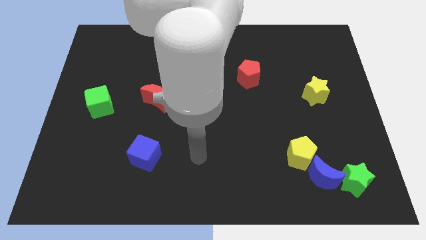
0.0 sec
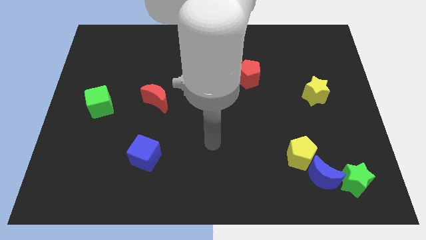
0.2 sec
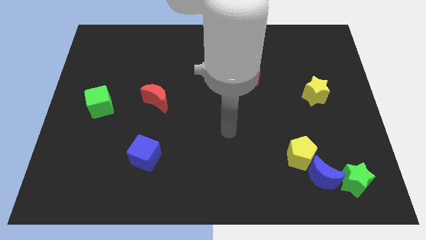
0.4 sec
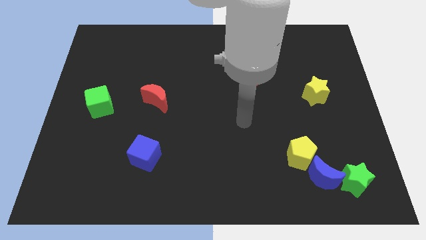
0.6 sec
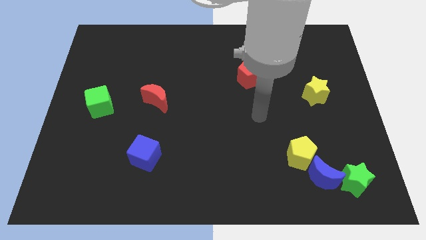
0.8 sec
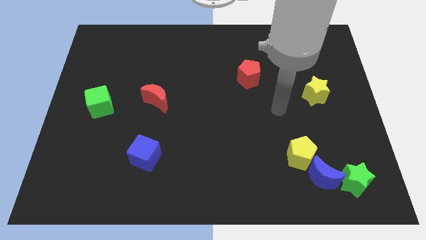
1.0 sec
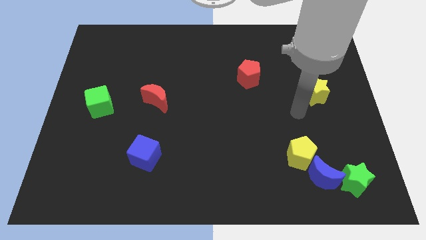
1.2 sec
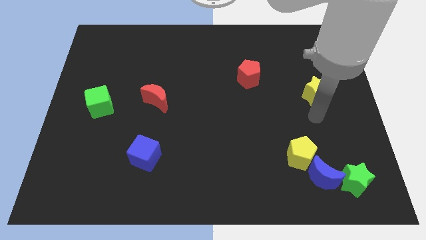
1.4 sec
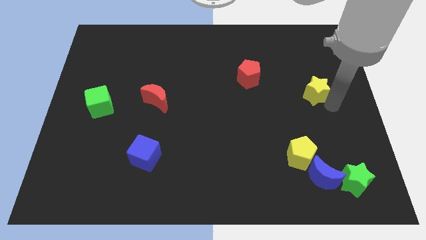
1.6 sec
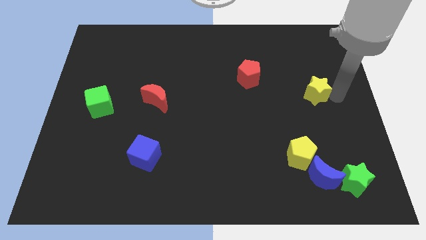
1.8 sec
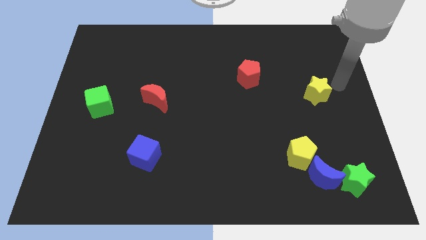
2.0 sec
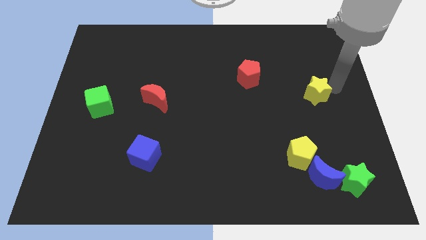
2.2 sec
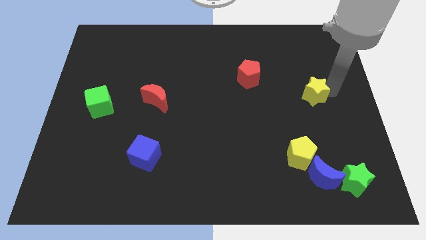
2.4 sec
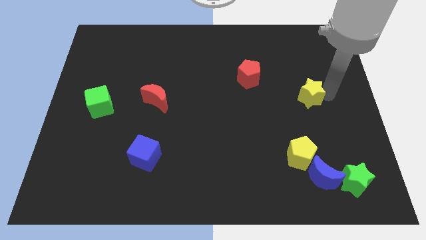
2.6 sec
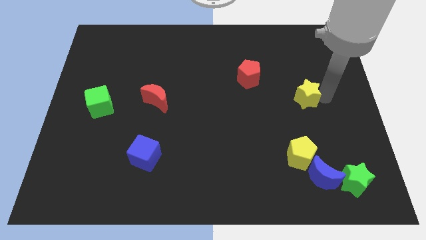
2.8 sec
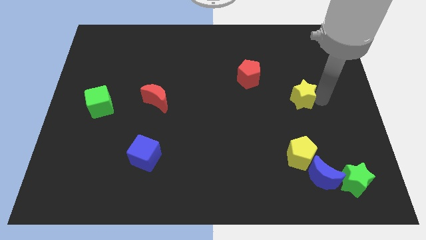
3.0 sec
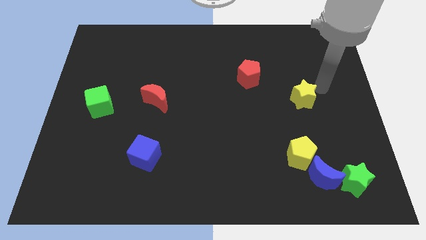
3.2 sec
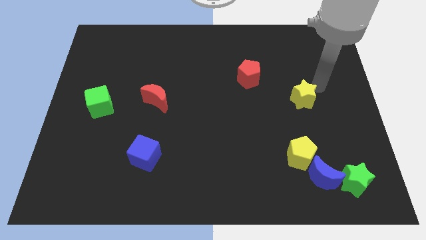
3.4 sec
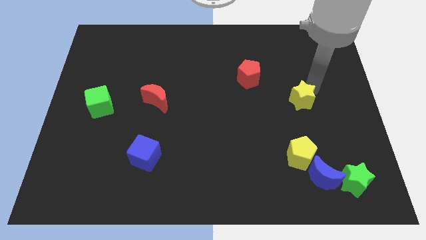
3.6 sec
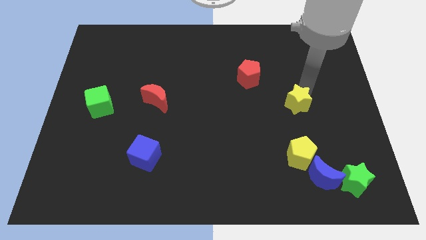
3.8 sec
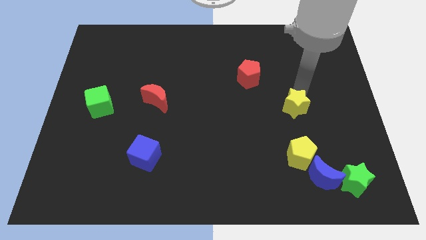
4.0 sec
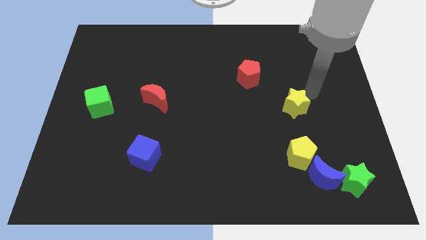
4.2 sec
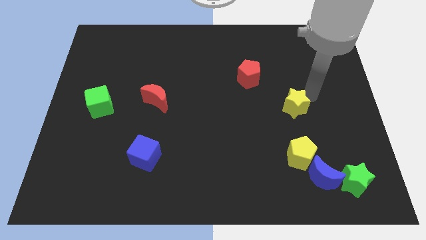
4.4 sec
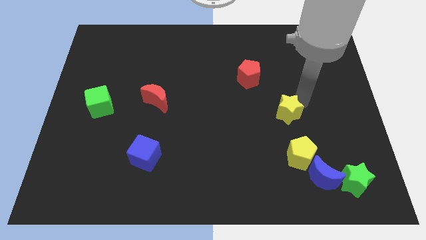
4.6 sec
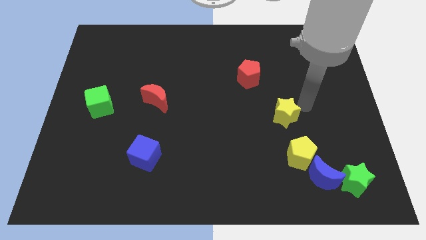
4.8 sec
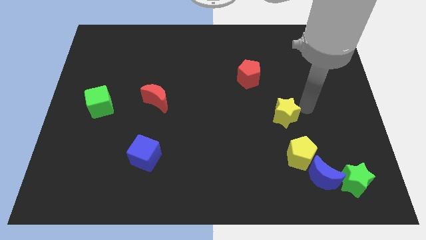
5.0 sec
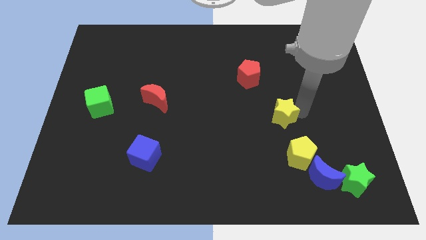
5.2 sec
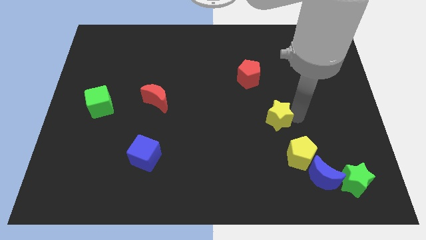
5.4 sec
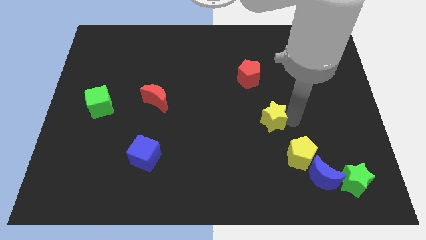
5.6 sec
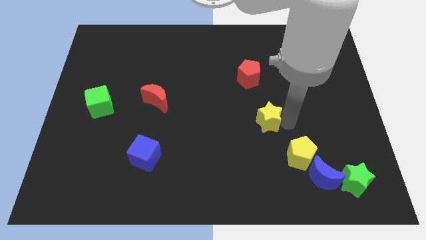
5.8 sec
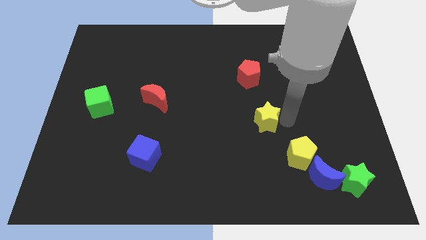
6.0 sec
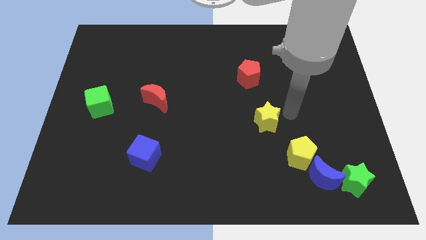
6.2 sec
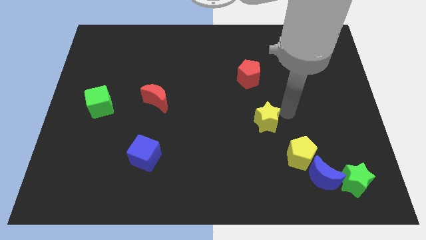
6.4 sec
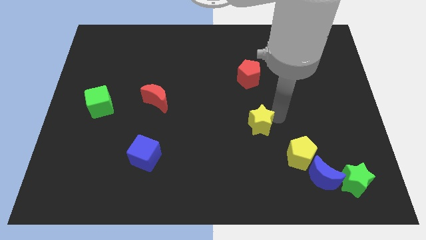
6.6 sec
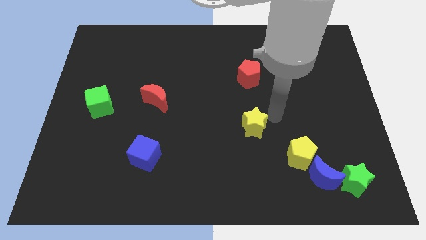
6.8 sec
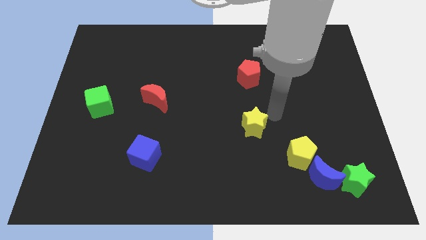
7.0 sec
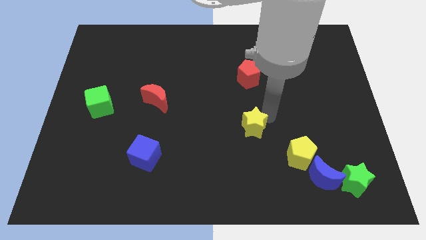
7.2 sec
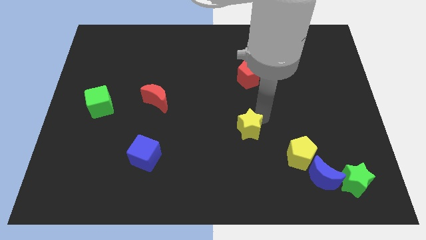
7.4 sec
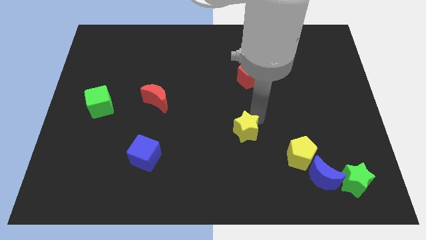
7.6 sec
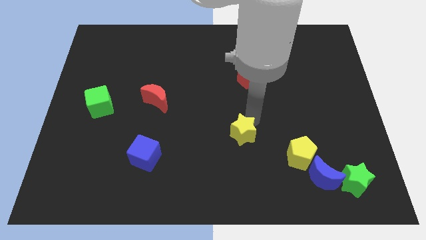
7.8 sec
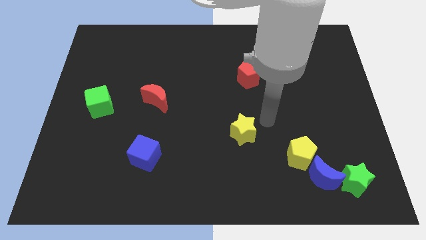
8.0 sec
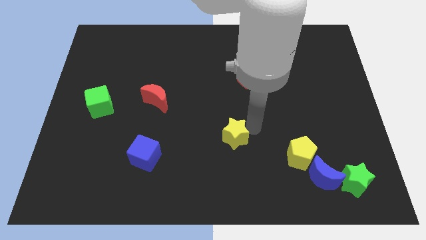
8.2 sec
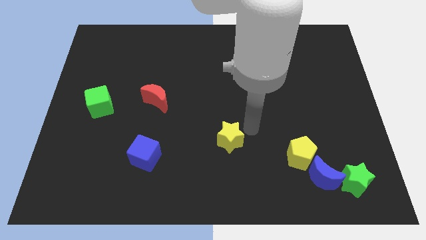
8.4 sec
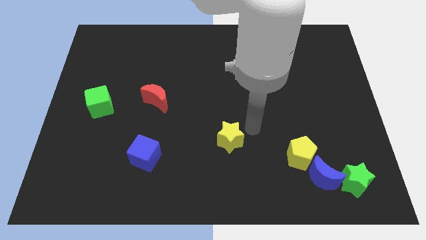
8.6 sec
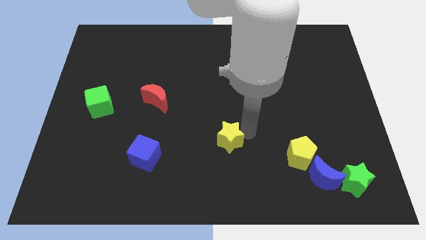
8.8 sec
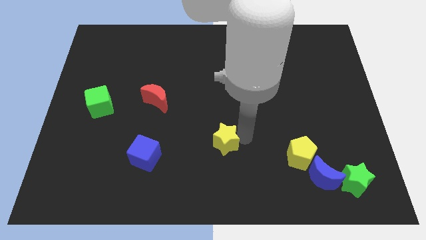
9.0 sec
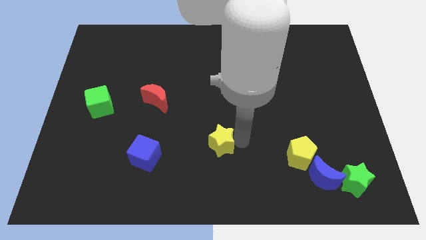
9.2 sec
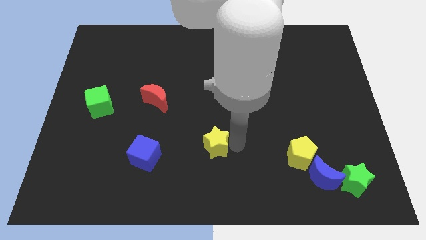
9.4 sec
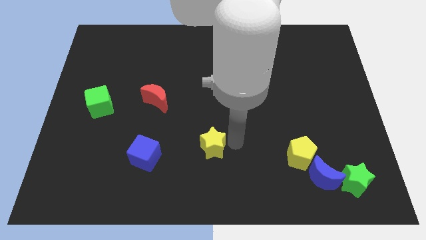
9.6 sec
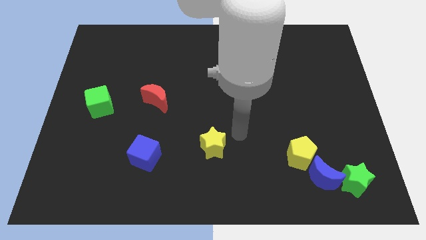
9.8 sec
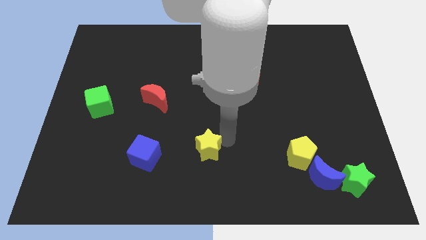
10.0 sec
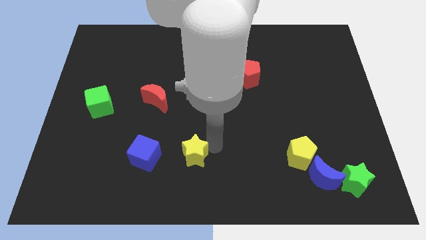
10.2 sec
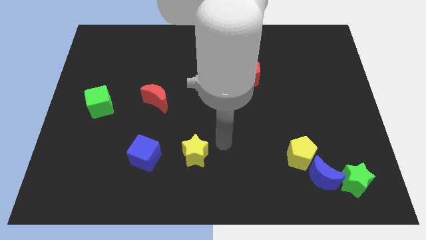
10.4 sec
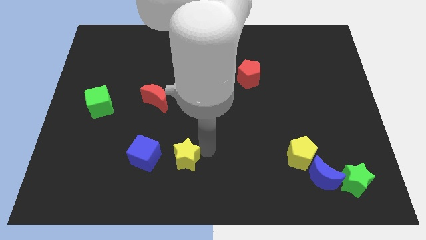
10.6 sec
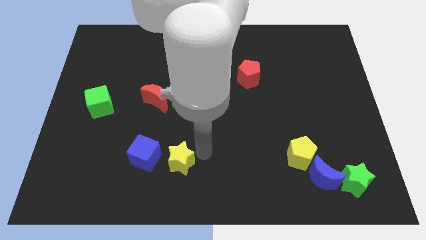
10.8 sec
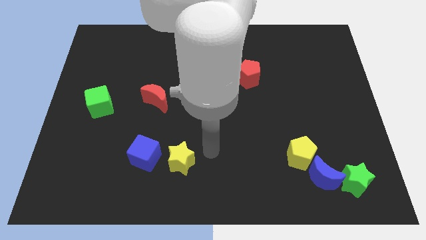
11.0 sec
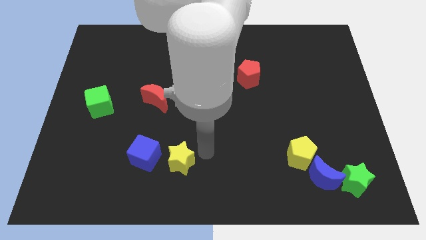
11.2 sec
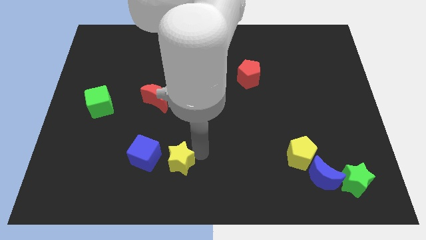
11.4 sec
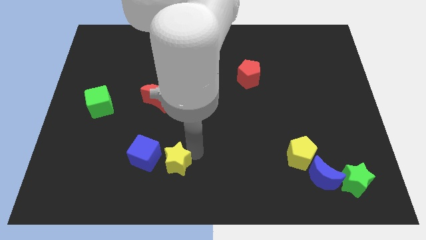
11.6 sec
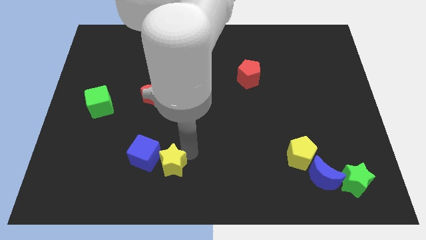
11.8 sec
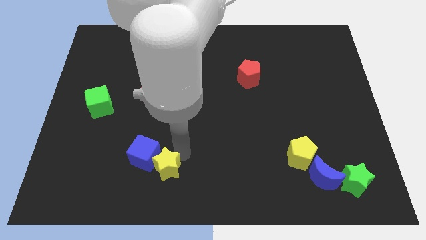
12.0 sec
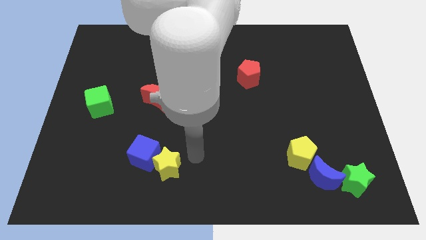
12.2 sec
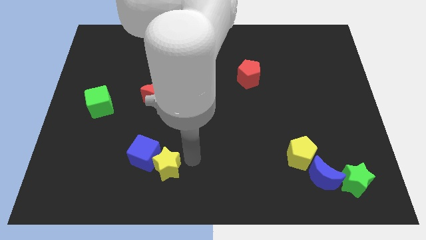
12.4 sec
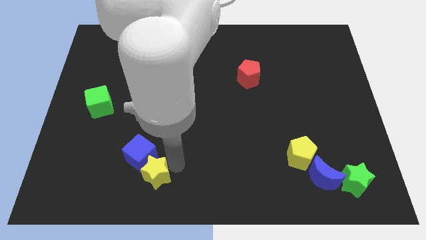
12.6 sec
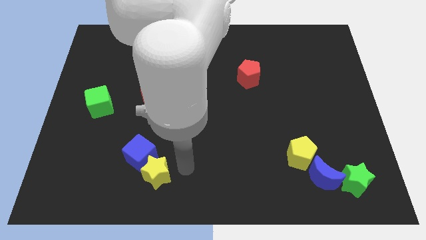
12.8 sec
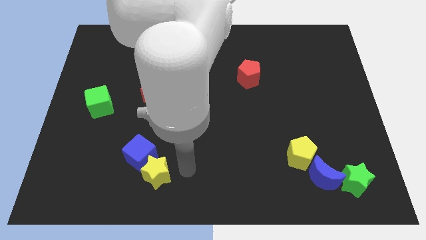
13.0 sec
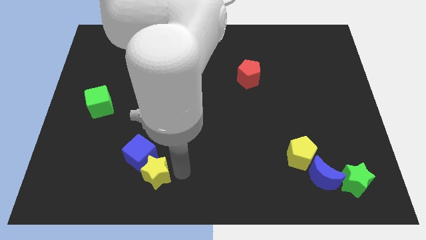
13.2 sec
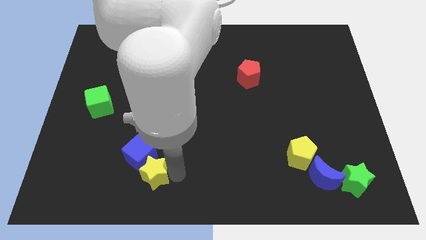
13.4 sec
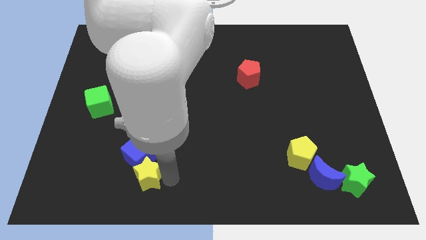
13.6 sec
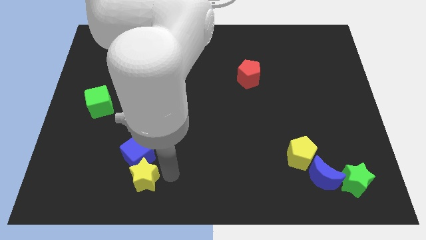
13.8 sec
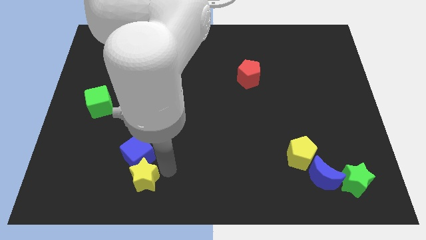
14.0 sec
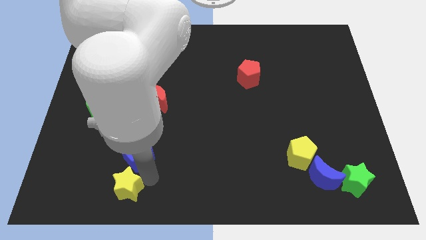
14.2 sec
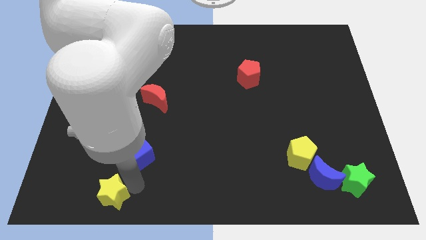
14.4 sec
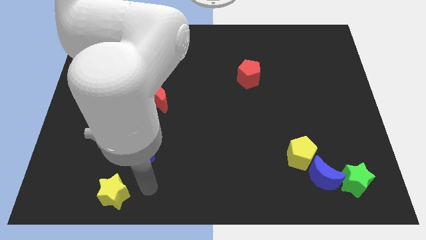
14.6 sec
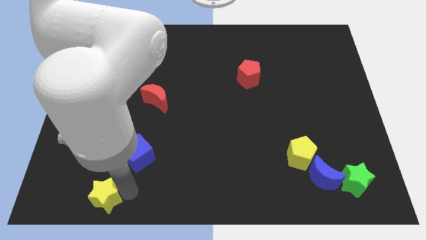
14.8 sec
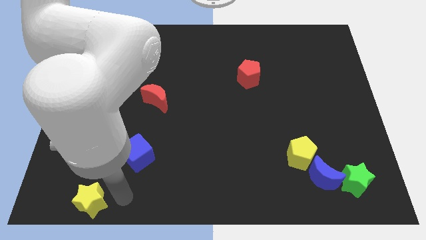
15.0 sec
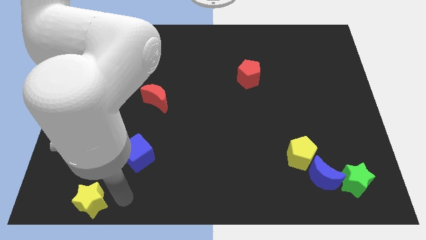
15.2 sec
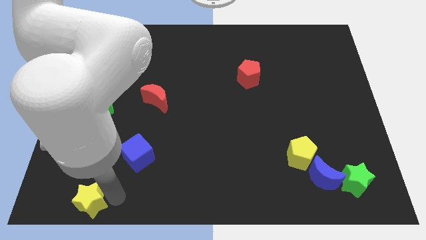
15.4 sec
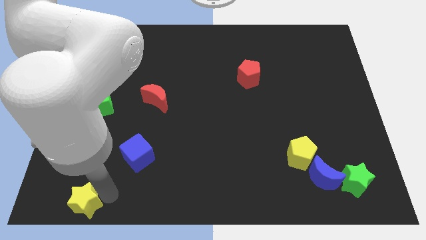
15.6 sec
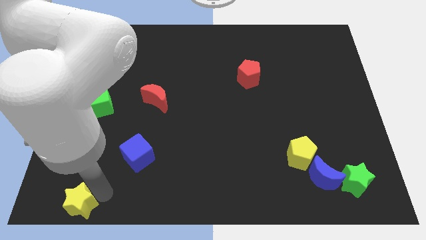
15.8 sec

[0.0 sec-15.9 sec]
push the yellow star to the bottom left
